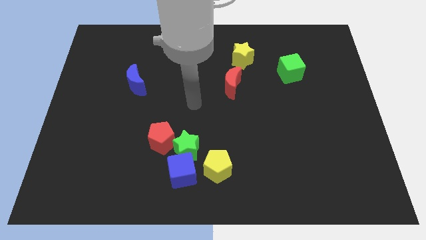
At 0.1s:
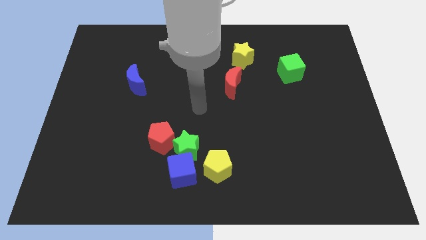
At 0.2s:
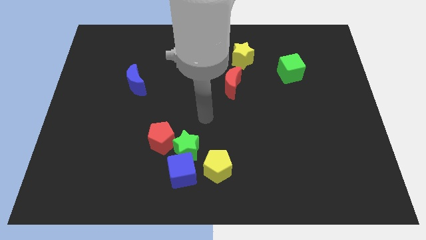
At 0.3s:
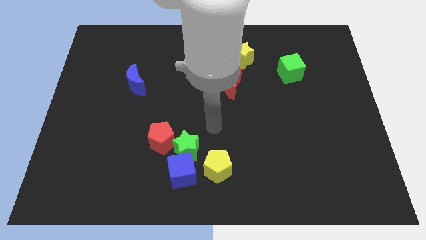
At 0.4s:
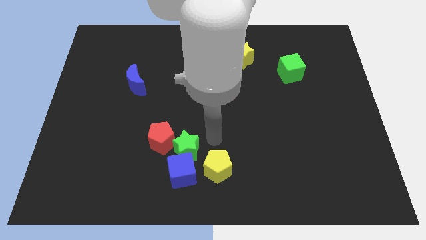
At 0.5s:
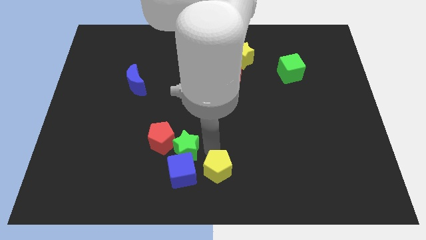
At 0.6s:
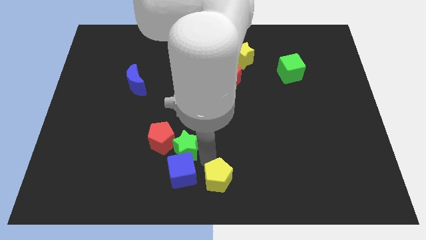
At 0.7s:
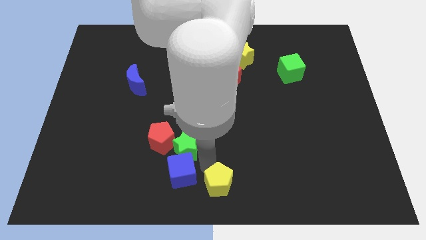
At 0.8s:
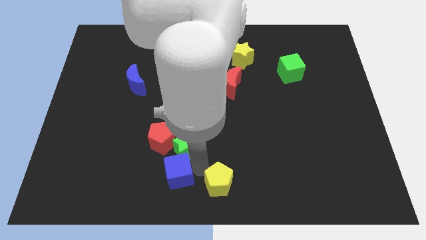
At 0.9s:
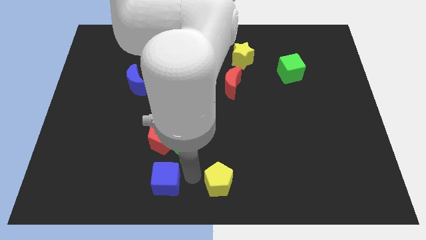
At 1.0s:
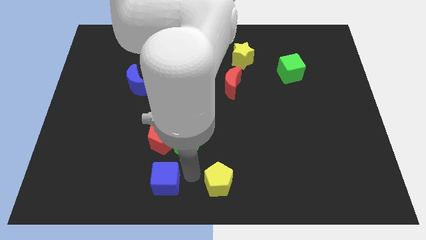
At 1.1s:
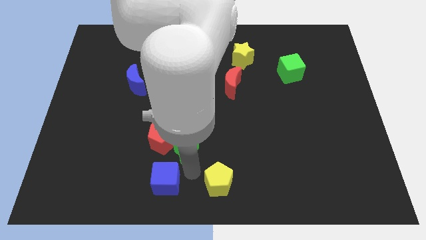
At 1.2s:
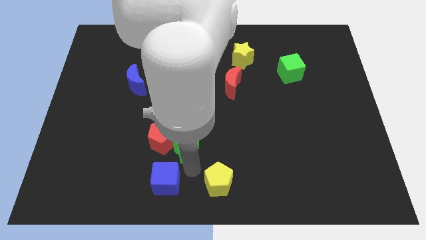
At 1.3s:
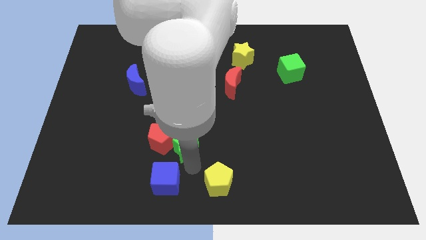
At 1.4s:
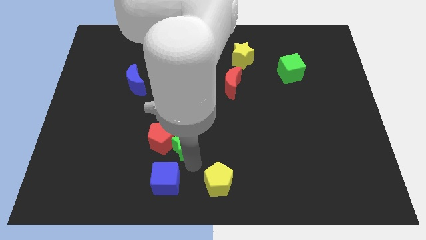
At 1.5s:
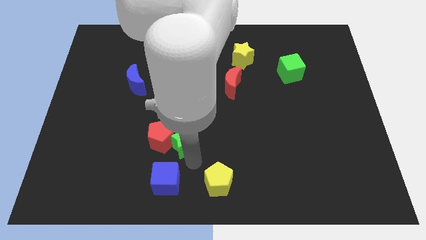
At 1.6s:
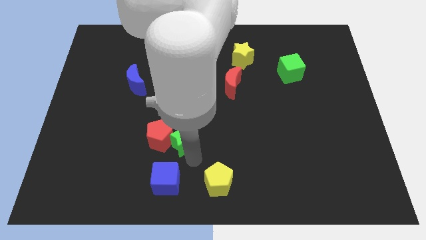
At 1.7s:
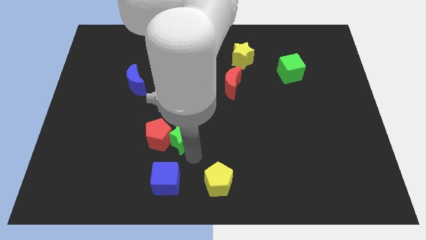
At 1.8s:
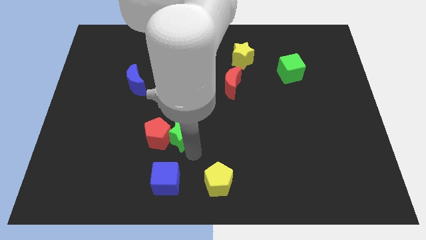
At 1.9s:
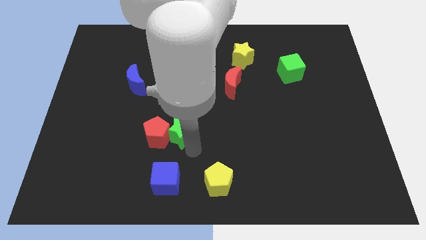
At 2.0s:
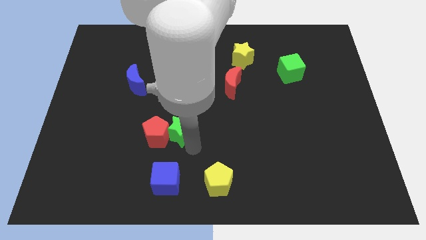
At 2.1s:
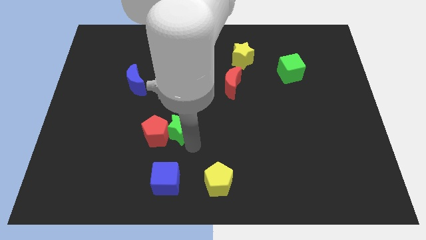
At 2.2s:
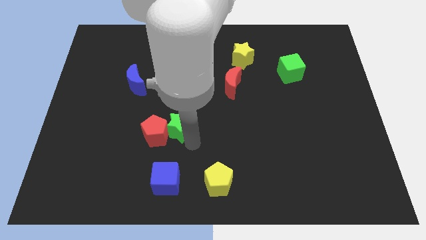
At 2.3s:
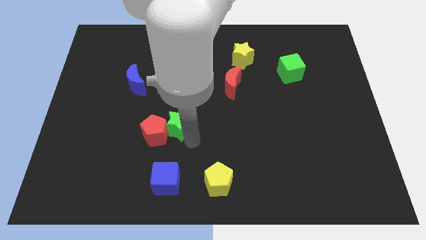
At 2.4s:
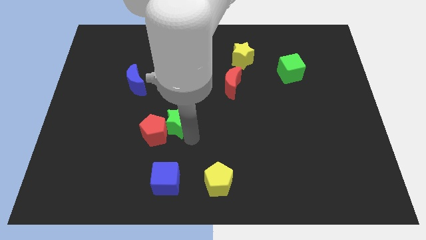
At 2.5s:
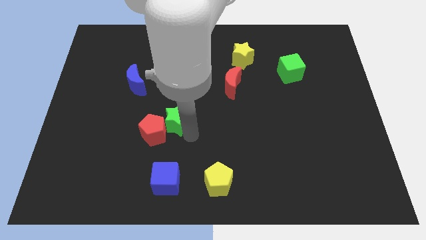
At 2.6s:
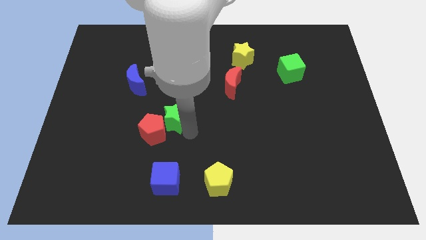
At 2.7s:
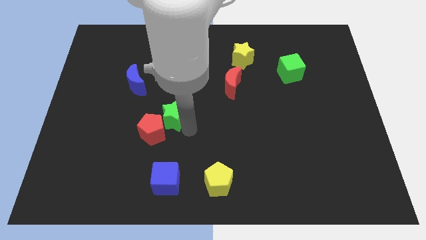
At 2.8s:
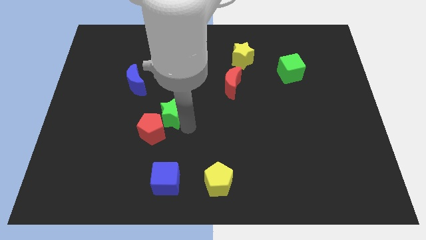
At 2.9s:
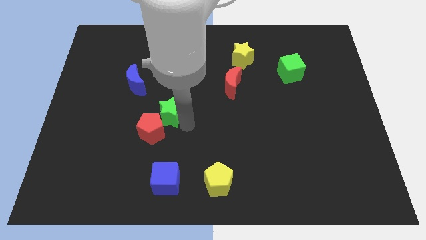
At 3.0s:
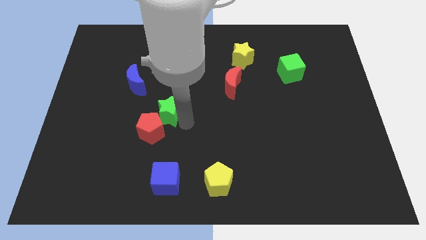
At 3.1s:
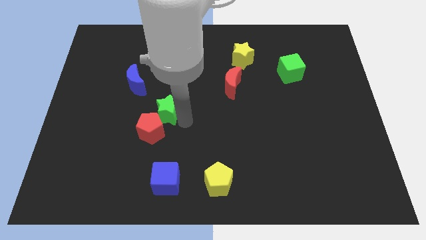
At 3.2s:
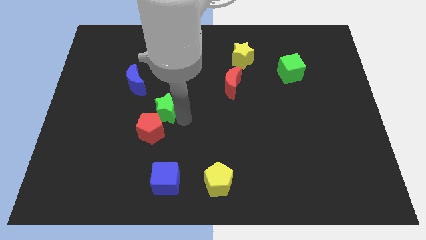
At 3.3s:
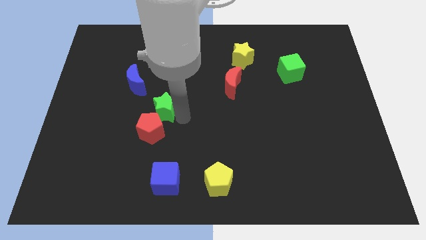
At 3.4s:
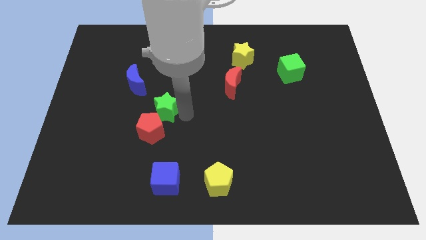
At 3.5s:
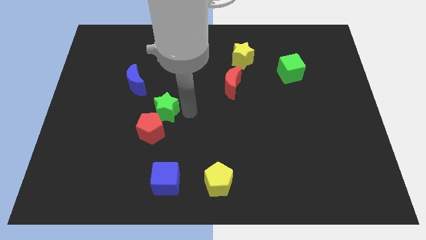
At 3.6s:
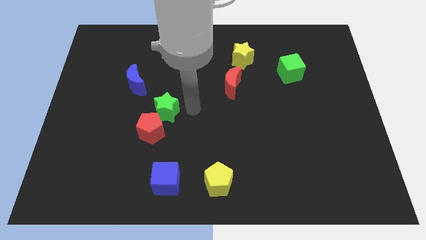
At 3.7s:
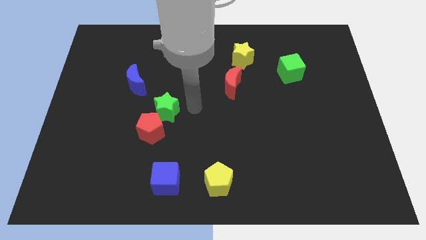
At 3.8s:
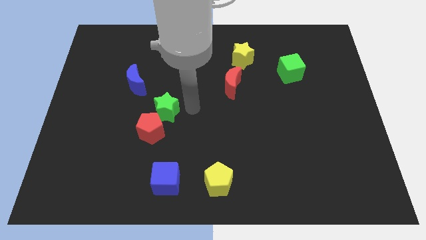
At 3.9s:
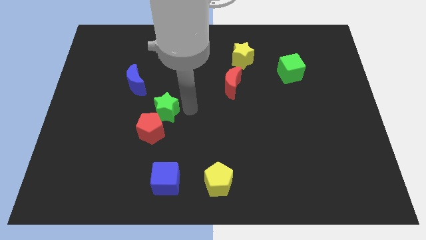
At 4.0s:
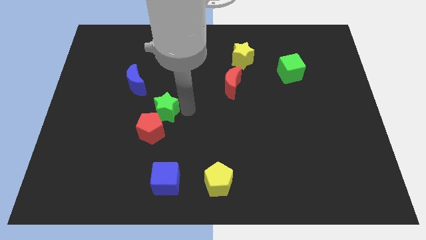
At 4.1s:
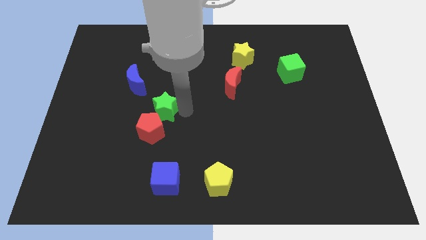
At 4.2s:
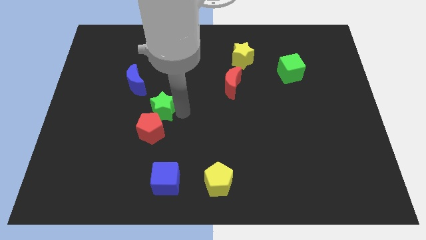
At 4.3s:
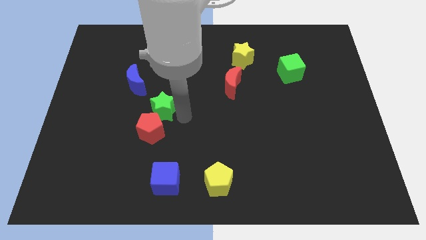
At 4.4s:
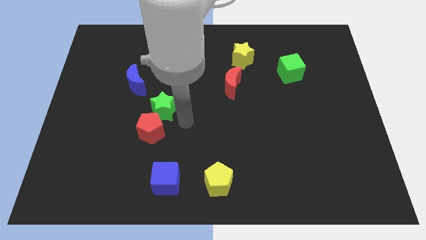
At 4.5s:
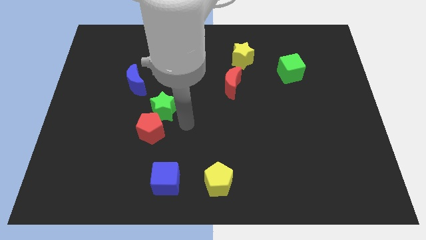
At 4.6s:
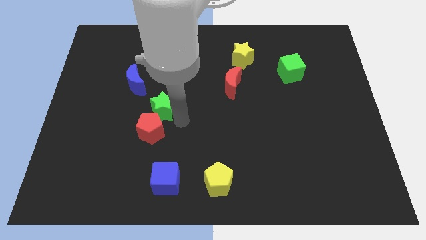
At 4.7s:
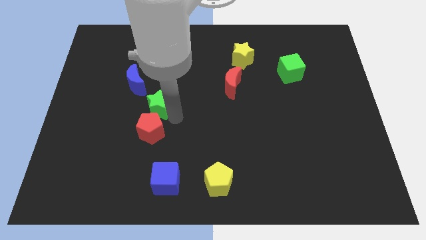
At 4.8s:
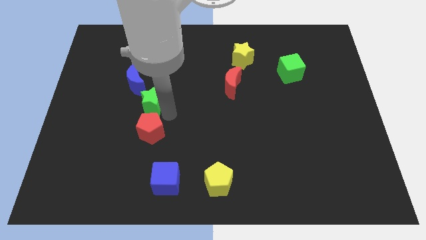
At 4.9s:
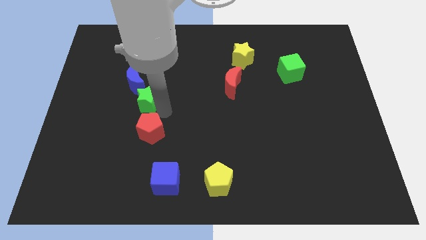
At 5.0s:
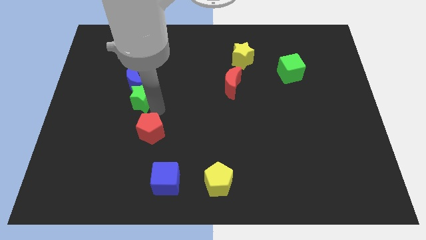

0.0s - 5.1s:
move the green star next to the blue moon

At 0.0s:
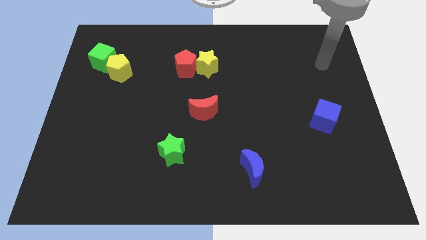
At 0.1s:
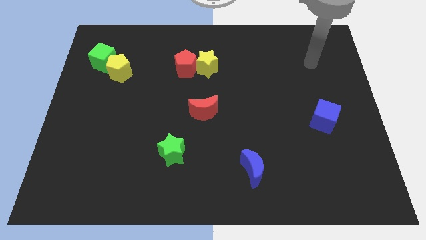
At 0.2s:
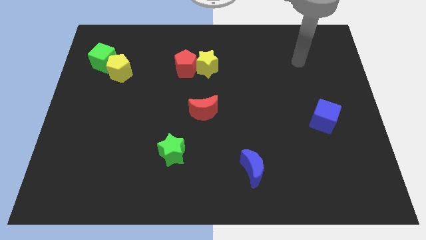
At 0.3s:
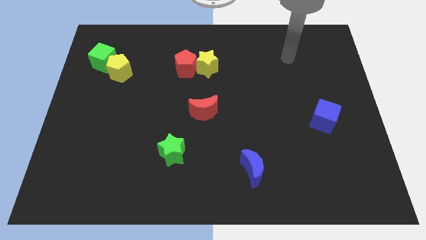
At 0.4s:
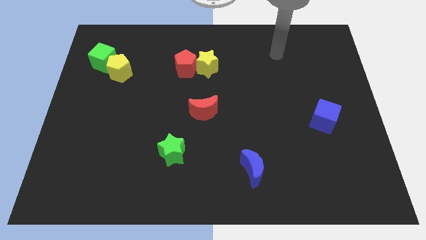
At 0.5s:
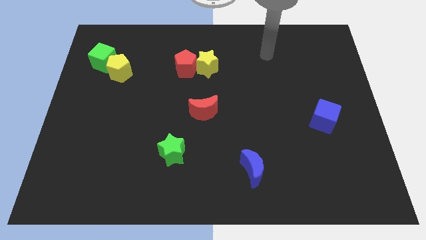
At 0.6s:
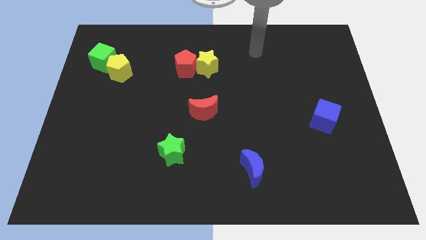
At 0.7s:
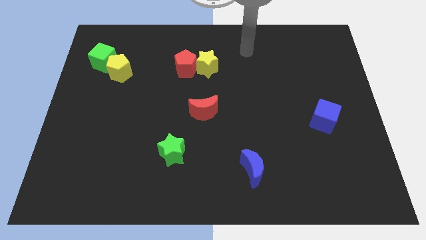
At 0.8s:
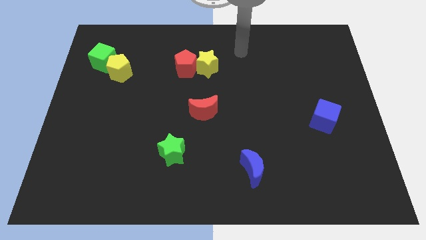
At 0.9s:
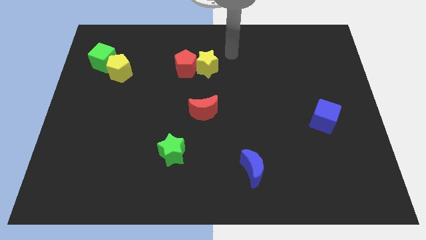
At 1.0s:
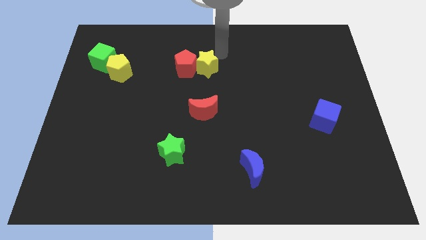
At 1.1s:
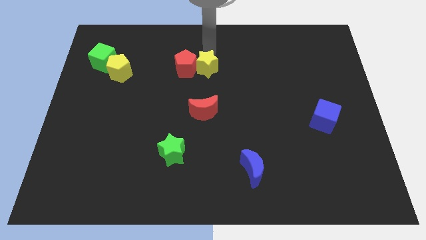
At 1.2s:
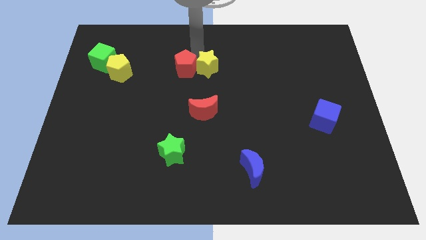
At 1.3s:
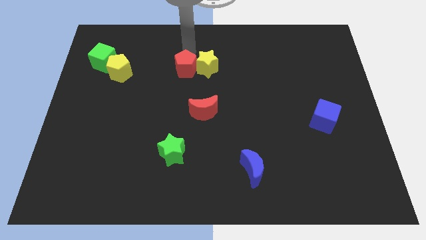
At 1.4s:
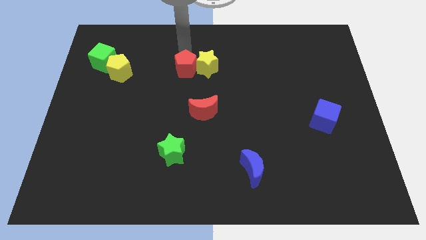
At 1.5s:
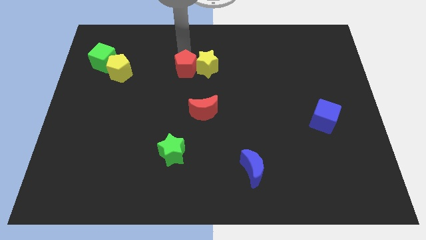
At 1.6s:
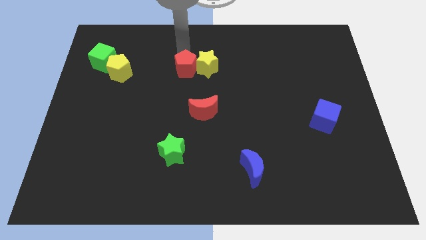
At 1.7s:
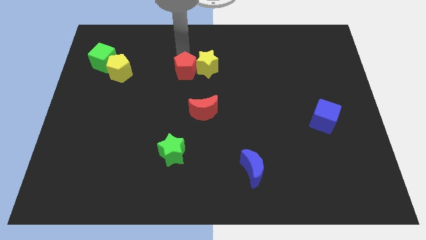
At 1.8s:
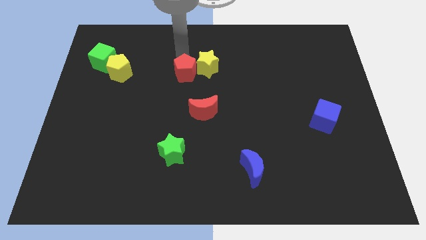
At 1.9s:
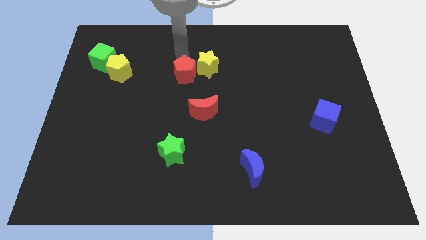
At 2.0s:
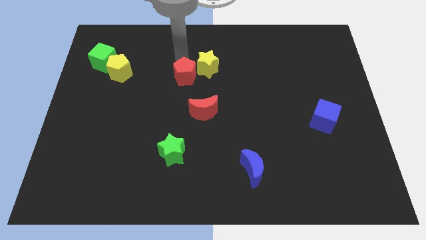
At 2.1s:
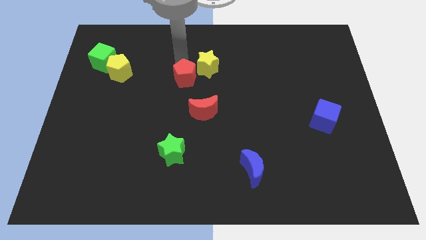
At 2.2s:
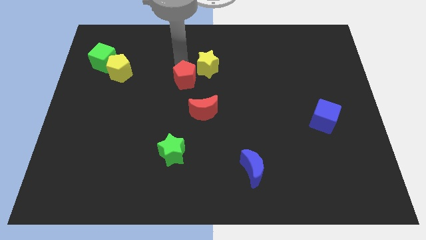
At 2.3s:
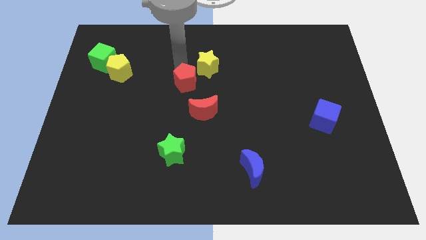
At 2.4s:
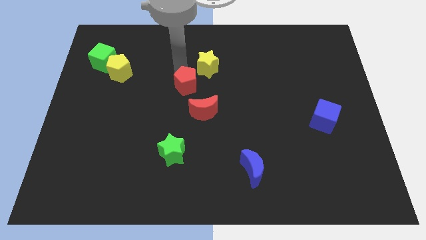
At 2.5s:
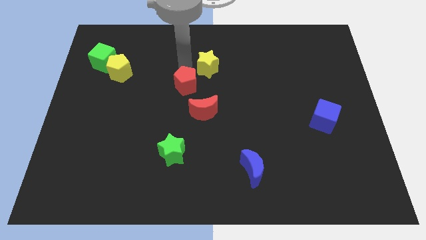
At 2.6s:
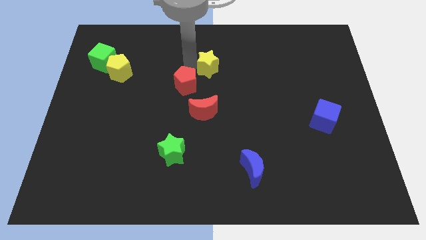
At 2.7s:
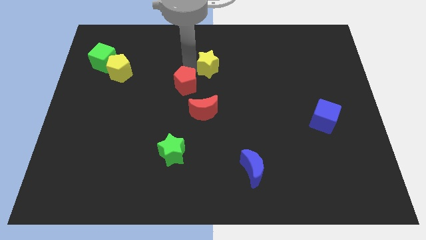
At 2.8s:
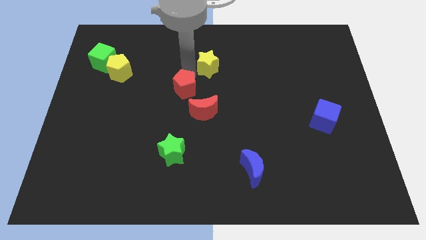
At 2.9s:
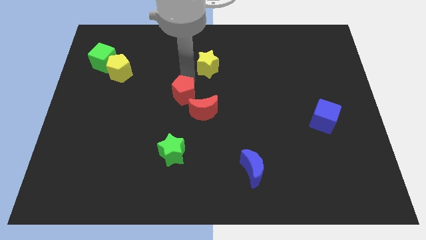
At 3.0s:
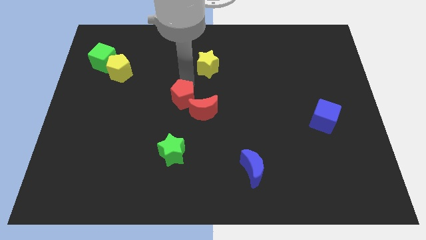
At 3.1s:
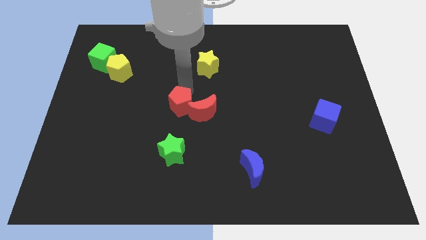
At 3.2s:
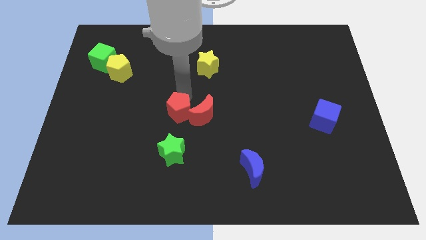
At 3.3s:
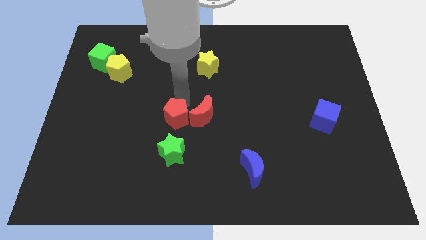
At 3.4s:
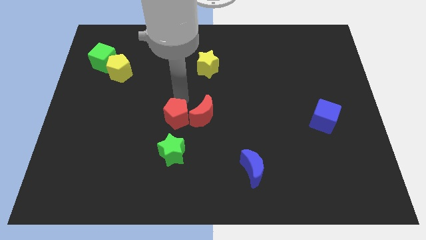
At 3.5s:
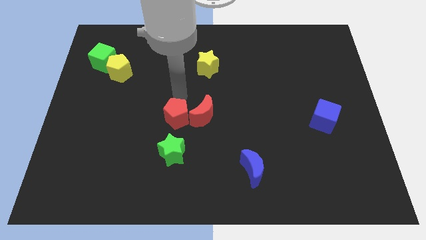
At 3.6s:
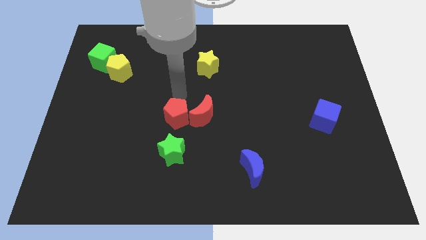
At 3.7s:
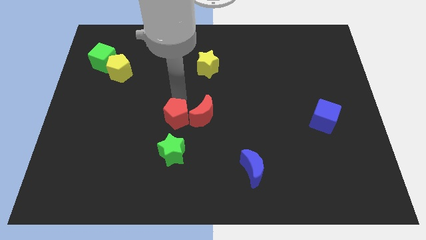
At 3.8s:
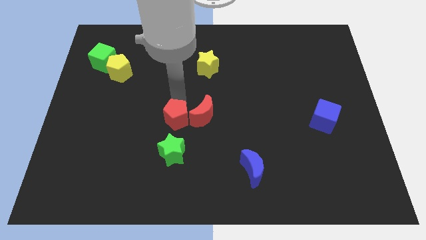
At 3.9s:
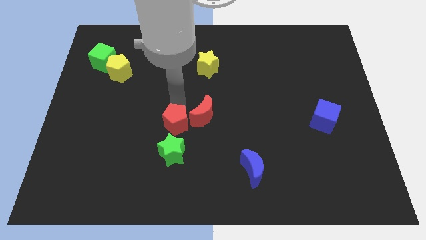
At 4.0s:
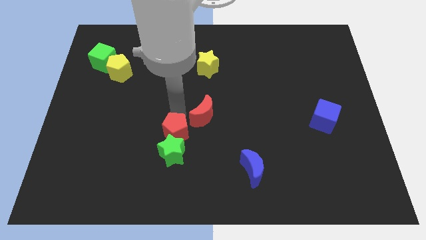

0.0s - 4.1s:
push the red pentagon close to the green star
